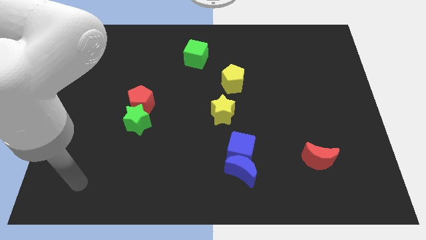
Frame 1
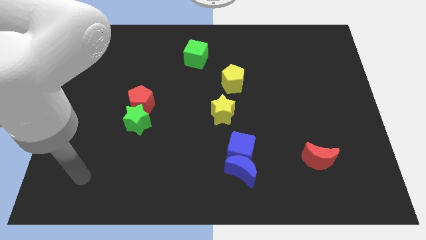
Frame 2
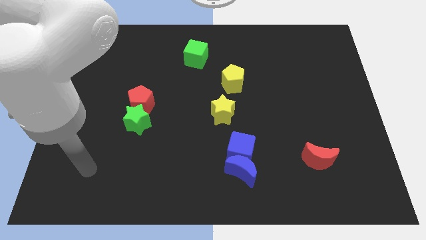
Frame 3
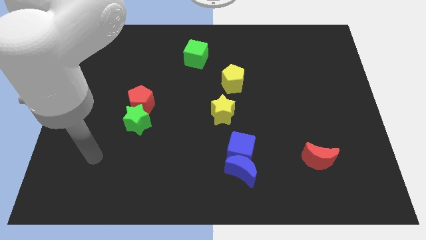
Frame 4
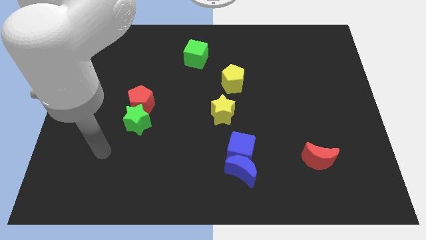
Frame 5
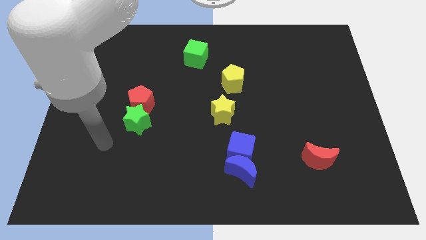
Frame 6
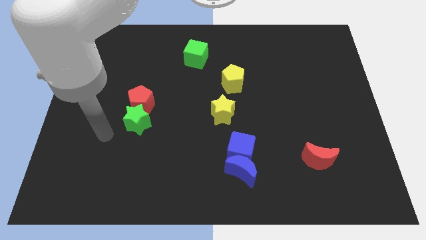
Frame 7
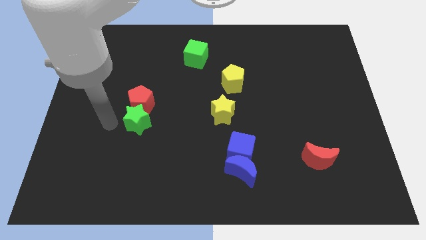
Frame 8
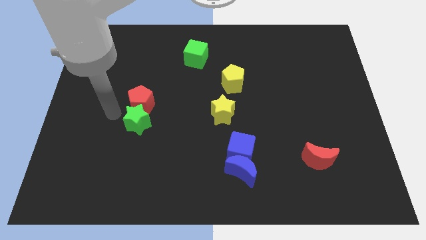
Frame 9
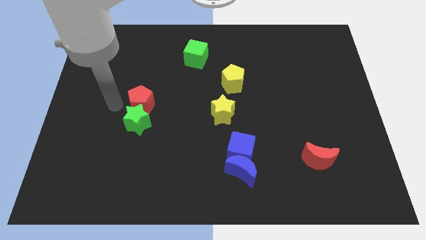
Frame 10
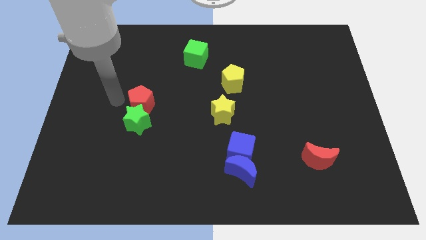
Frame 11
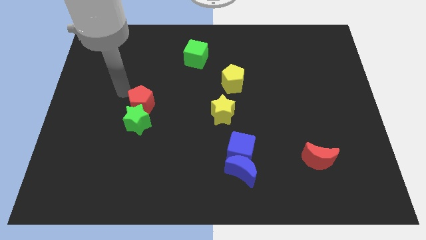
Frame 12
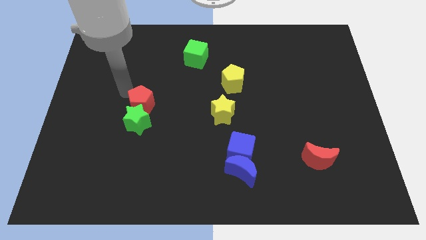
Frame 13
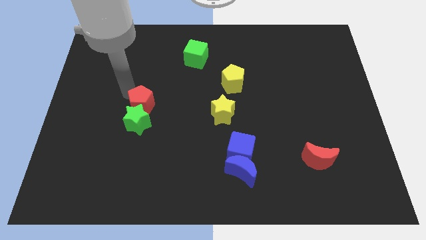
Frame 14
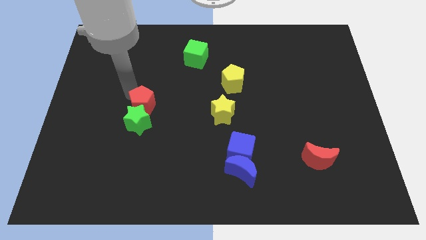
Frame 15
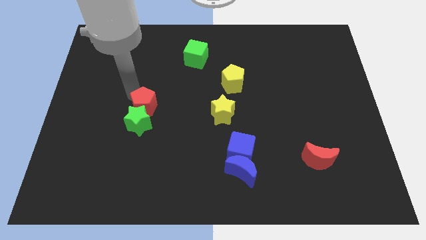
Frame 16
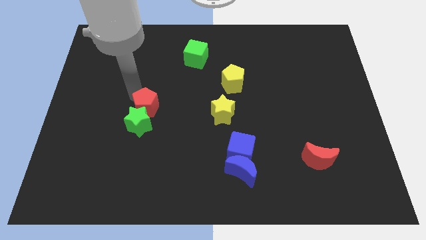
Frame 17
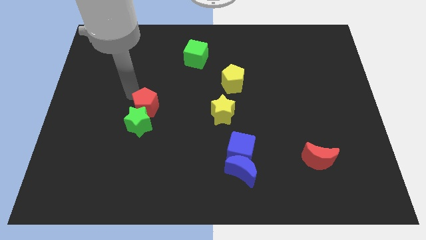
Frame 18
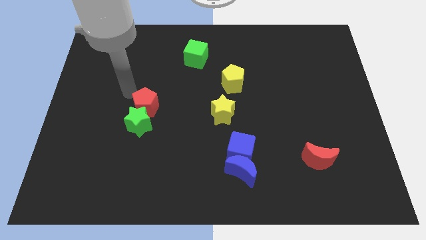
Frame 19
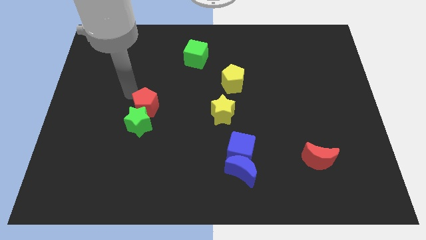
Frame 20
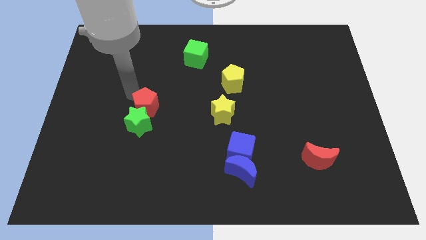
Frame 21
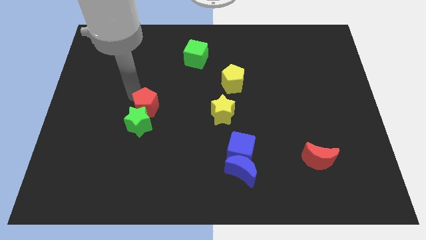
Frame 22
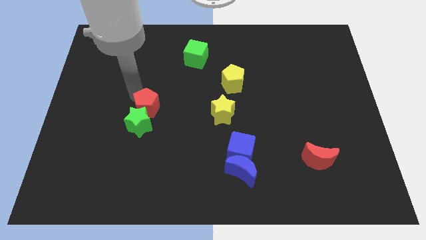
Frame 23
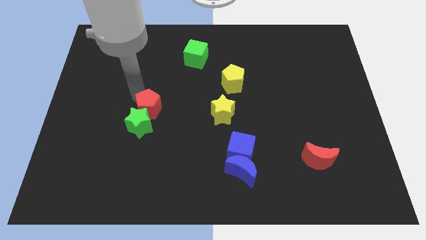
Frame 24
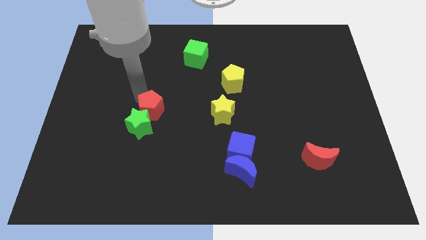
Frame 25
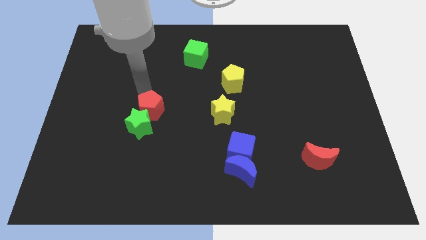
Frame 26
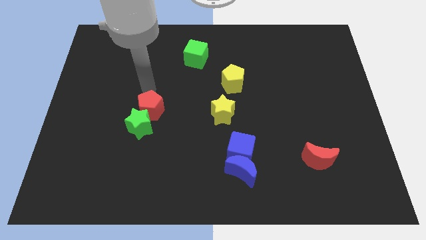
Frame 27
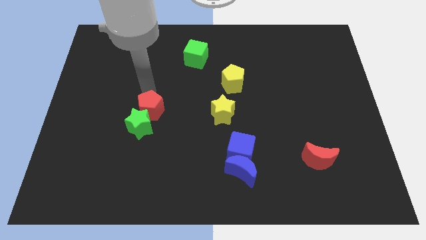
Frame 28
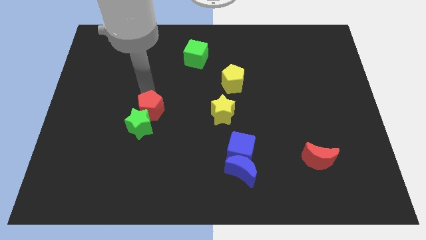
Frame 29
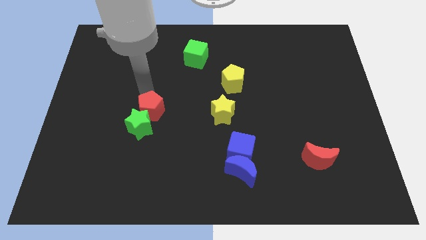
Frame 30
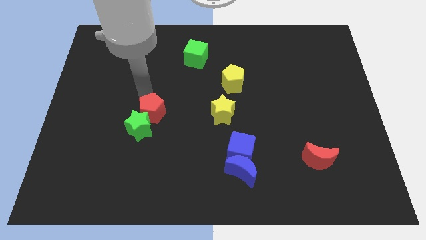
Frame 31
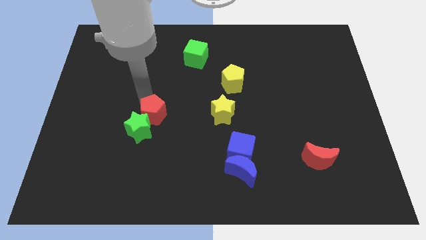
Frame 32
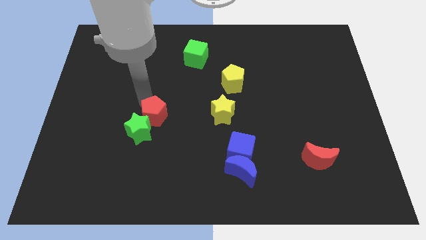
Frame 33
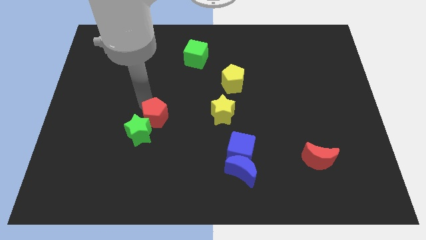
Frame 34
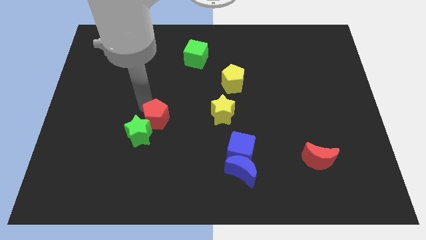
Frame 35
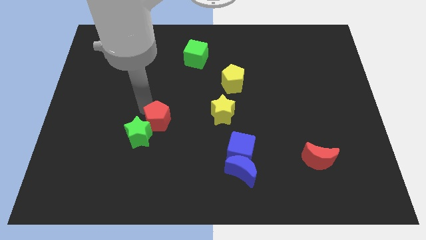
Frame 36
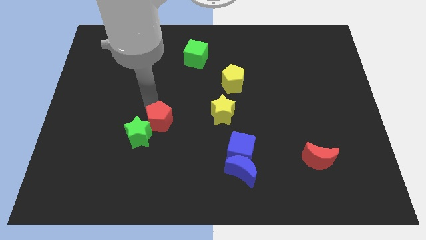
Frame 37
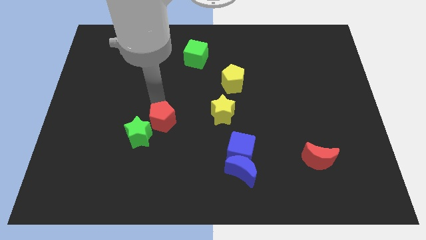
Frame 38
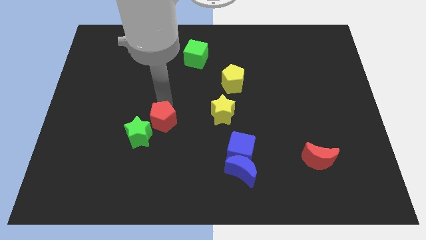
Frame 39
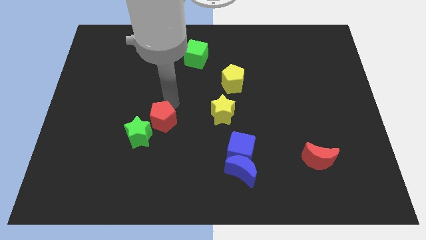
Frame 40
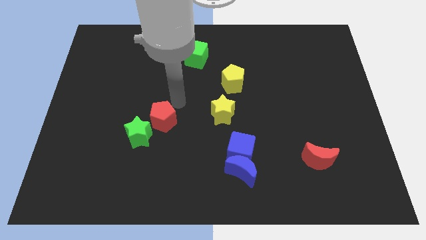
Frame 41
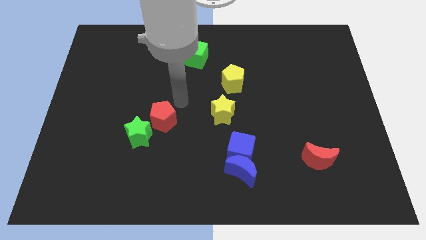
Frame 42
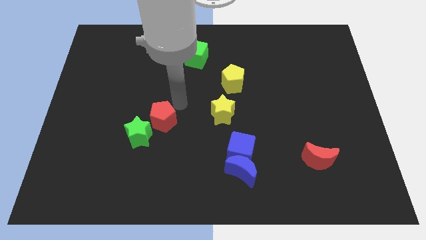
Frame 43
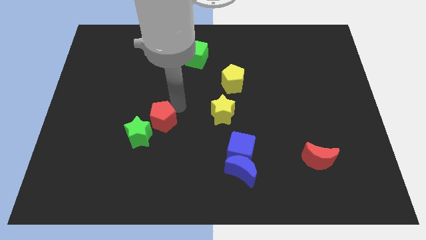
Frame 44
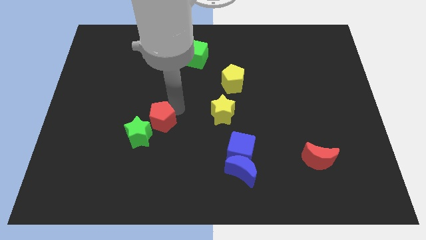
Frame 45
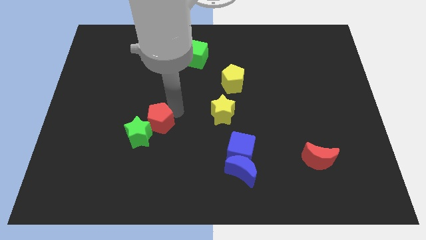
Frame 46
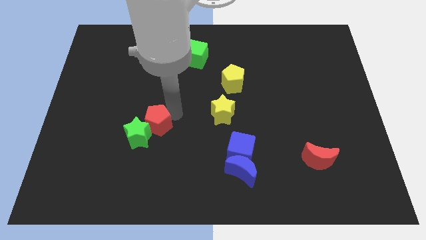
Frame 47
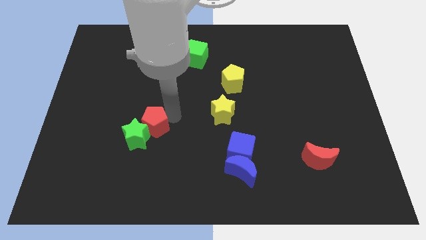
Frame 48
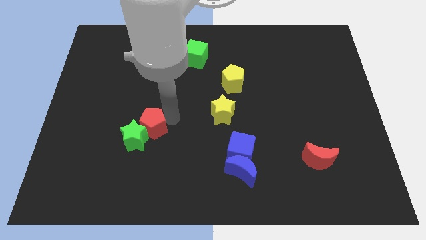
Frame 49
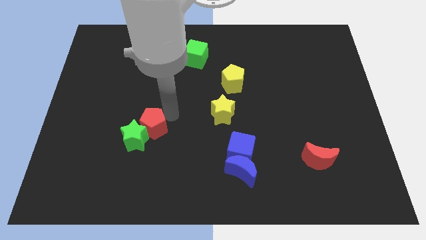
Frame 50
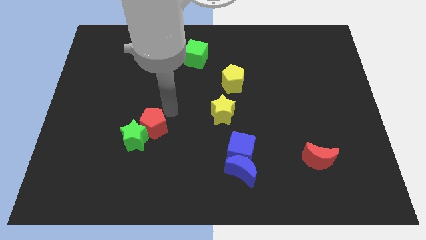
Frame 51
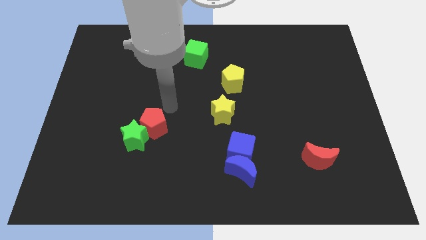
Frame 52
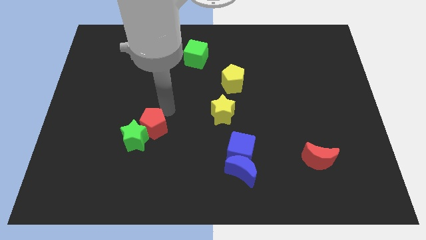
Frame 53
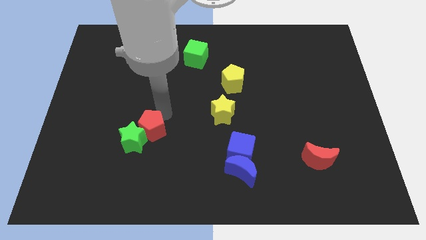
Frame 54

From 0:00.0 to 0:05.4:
move the red pentagon downwards a little

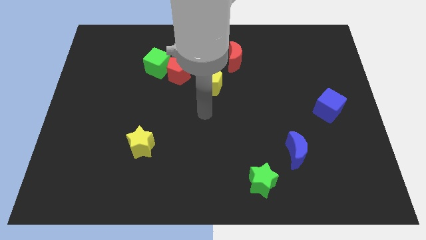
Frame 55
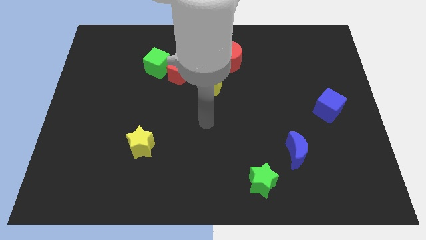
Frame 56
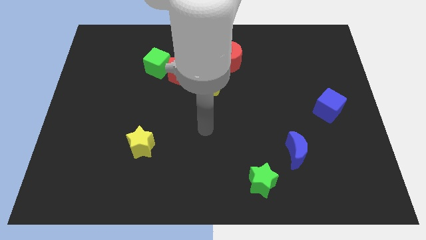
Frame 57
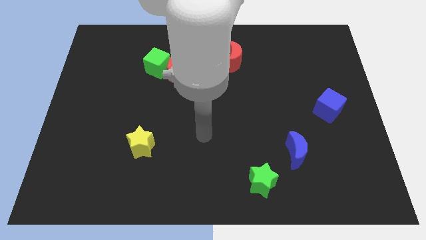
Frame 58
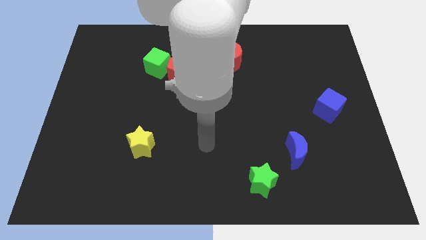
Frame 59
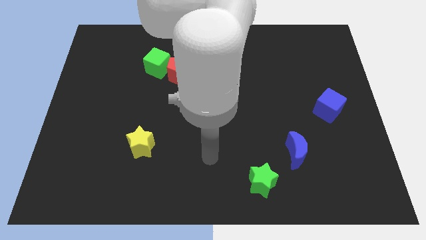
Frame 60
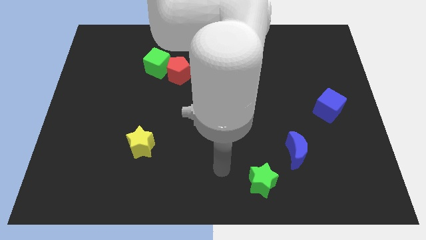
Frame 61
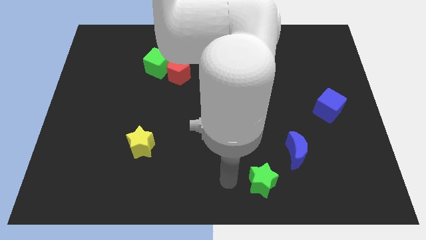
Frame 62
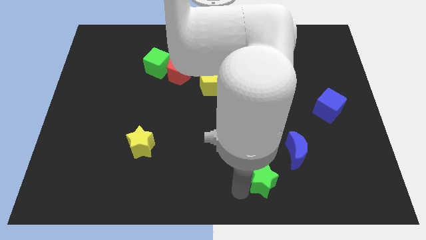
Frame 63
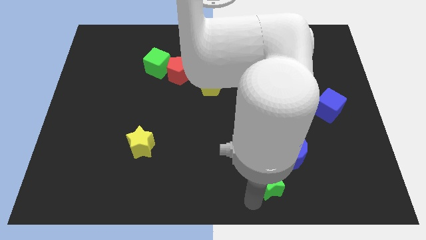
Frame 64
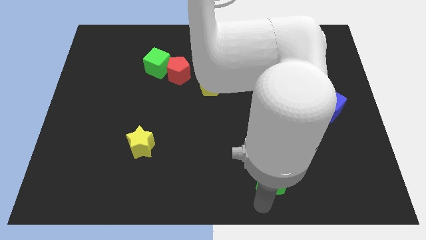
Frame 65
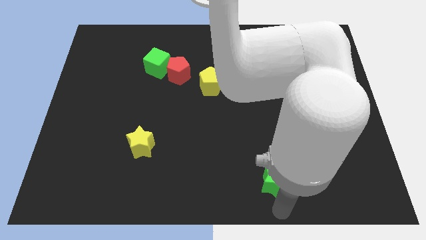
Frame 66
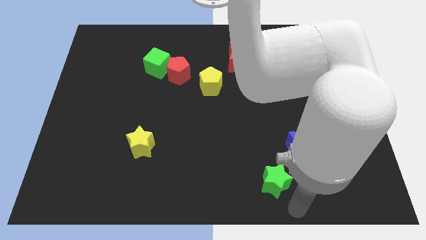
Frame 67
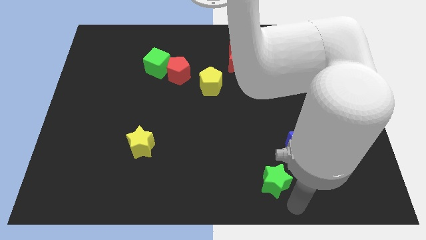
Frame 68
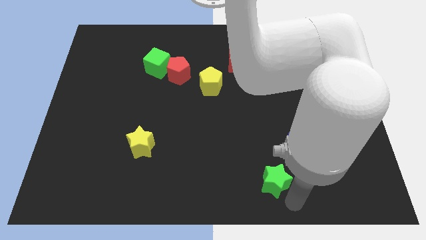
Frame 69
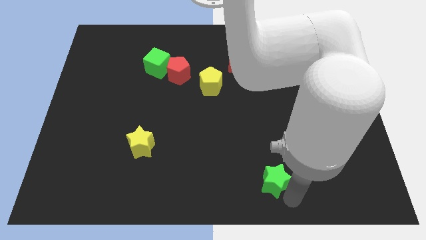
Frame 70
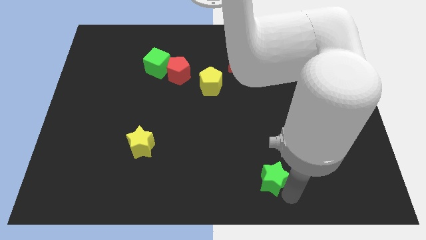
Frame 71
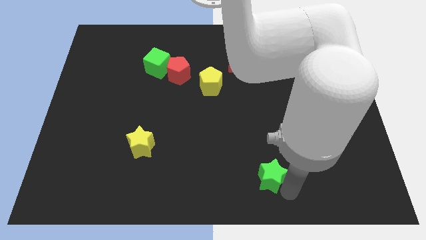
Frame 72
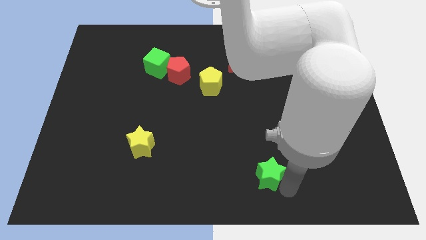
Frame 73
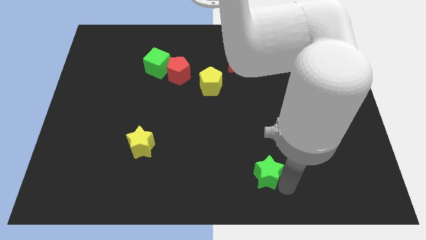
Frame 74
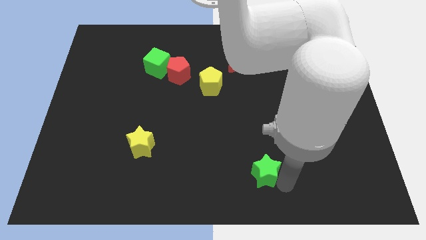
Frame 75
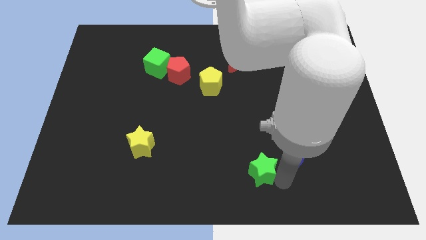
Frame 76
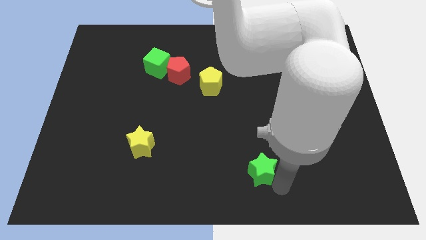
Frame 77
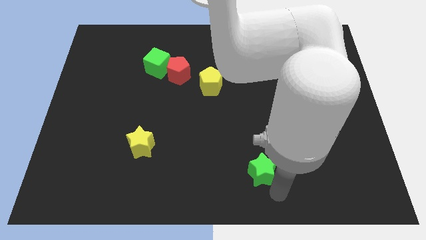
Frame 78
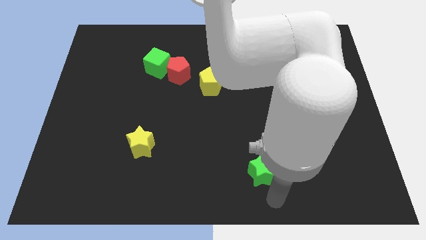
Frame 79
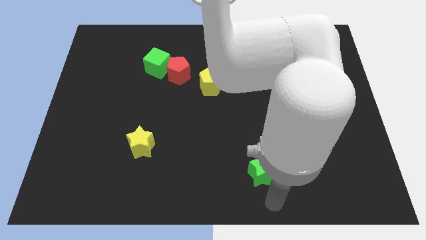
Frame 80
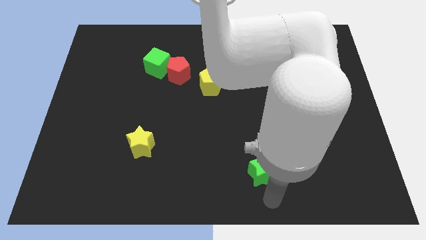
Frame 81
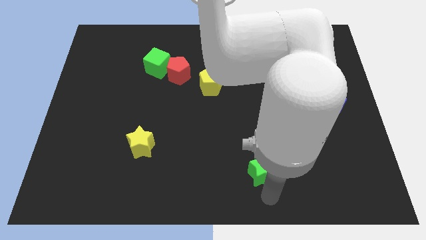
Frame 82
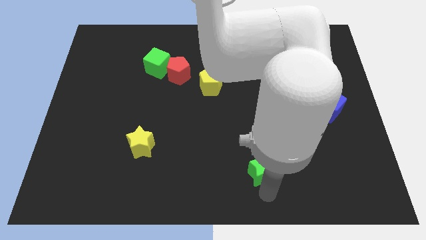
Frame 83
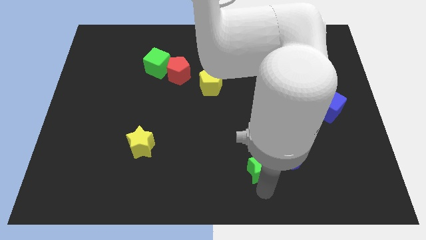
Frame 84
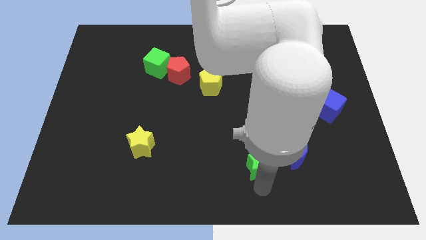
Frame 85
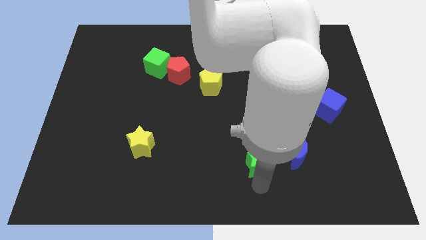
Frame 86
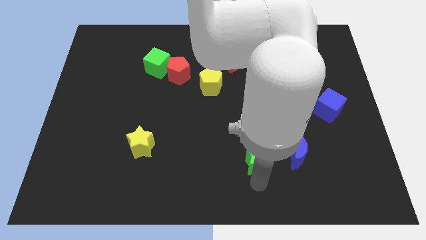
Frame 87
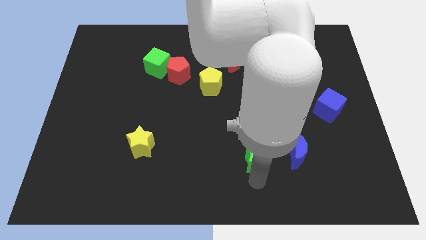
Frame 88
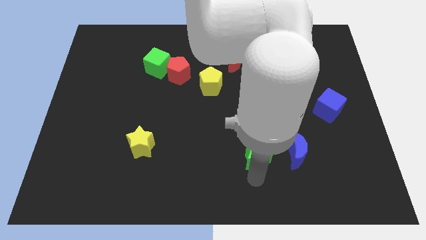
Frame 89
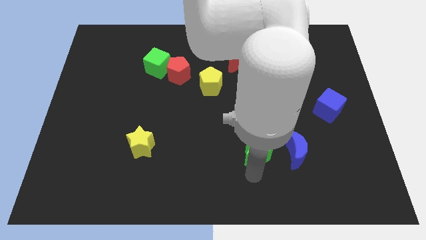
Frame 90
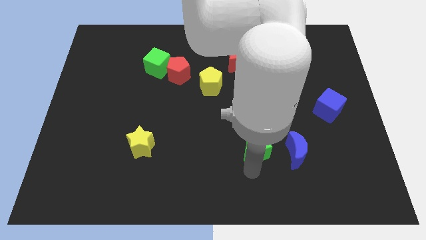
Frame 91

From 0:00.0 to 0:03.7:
slightly move the green star upwards
